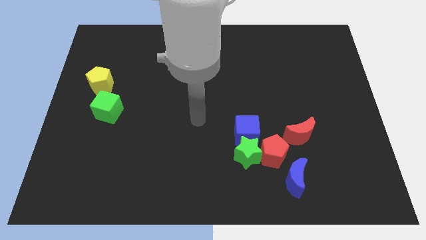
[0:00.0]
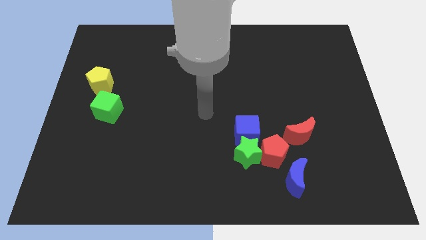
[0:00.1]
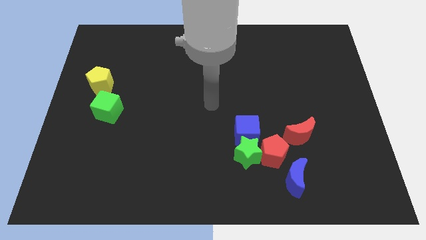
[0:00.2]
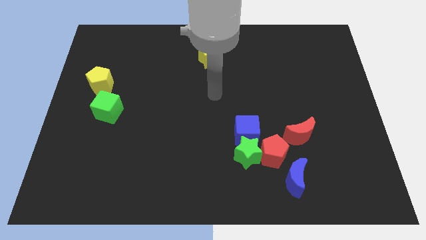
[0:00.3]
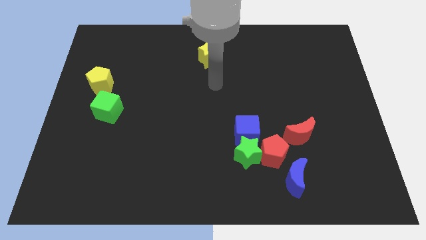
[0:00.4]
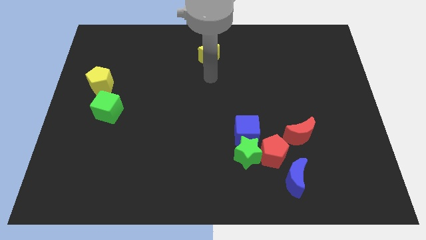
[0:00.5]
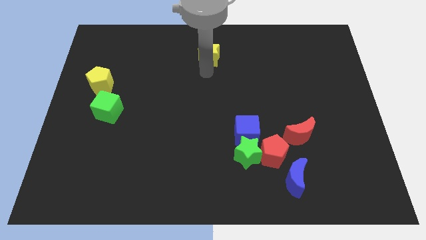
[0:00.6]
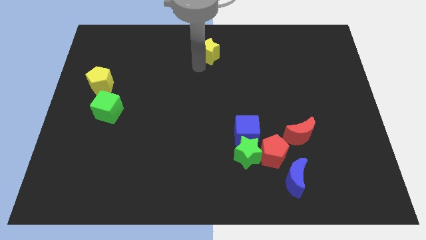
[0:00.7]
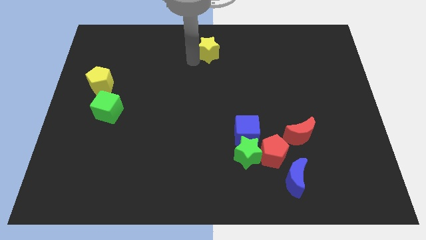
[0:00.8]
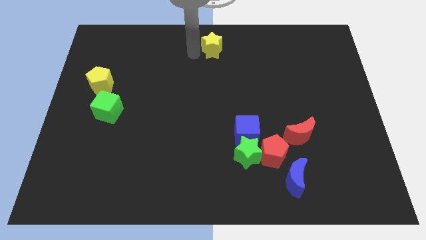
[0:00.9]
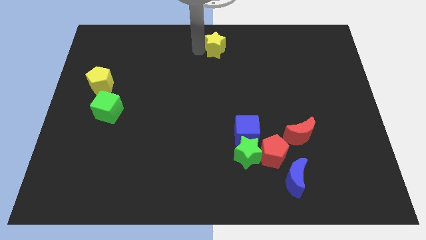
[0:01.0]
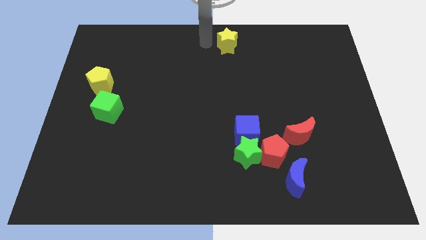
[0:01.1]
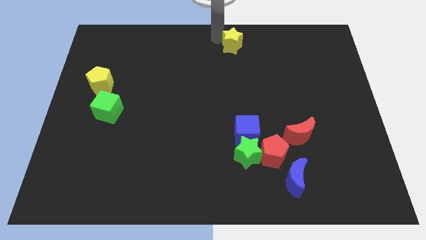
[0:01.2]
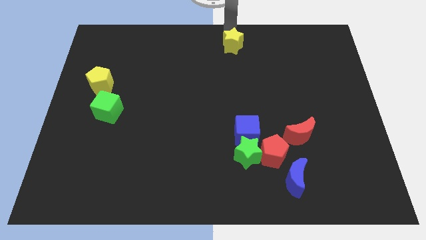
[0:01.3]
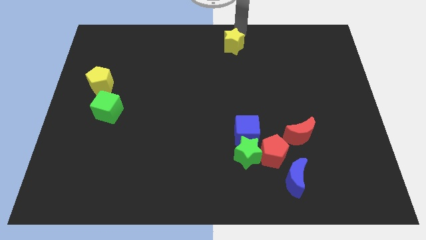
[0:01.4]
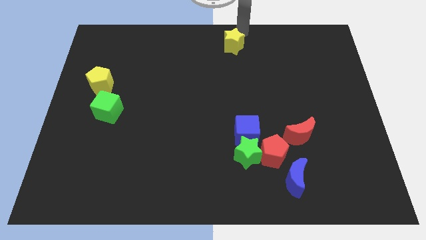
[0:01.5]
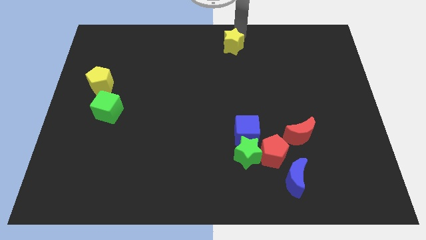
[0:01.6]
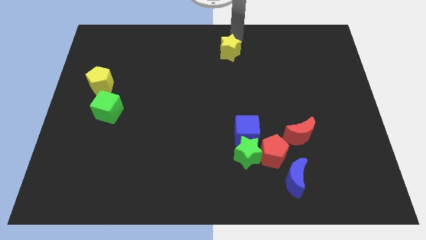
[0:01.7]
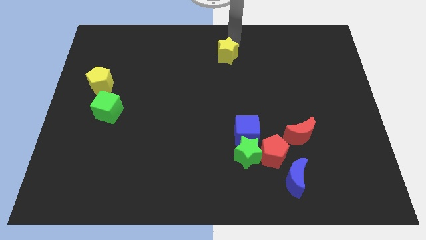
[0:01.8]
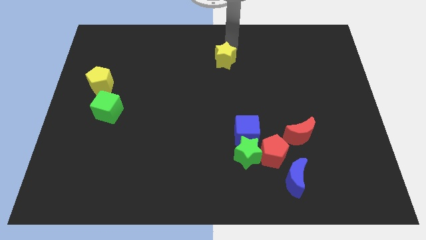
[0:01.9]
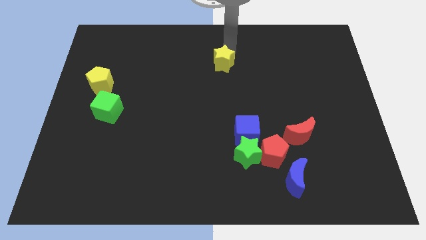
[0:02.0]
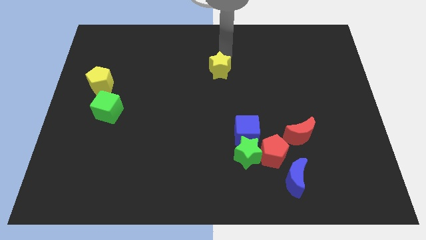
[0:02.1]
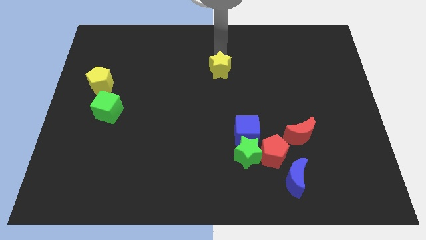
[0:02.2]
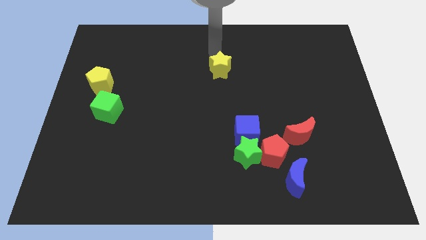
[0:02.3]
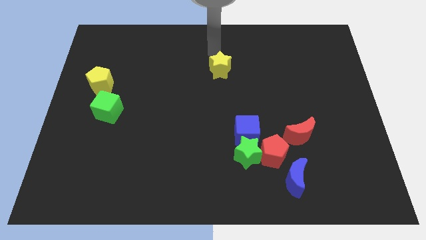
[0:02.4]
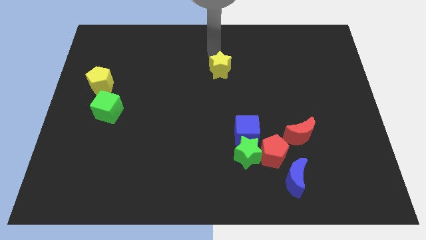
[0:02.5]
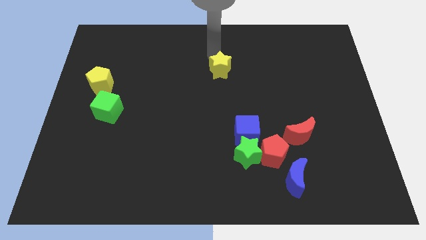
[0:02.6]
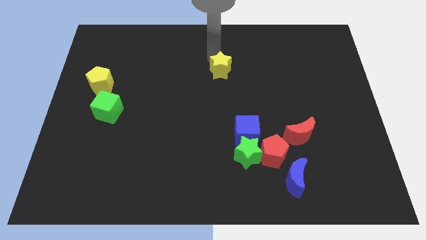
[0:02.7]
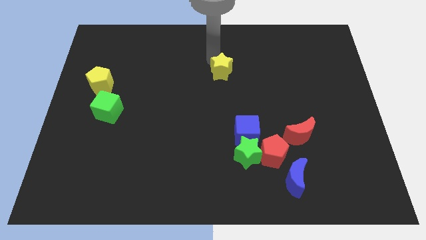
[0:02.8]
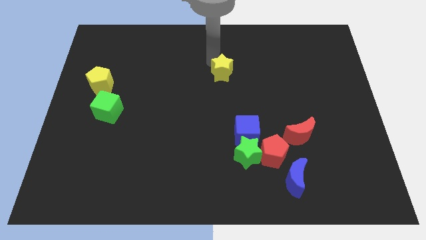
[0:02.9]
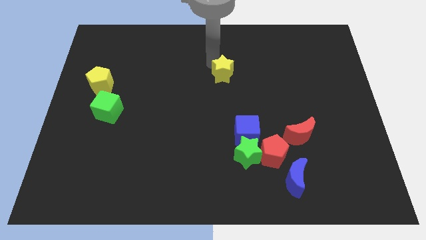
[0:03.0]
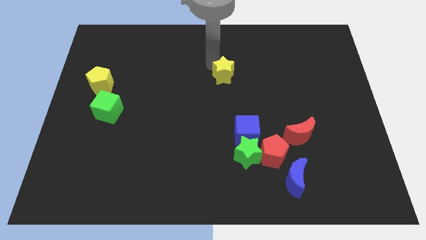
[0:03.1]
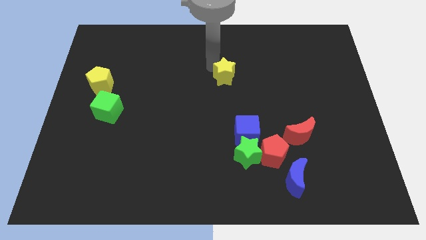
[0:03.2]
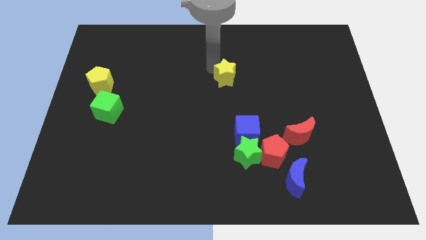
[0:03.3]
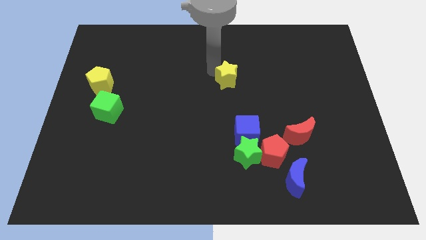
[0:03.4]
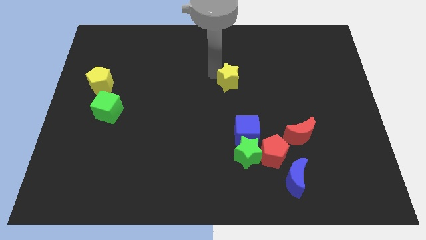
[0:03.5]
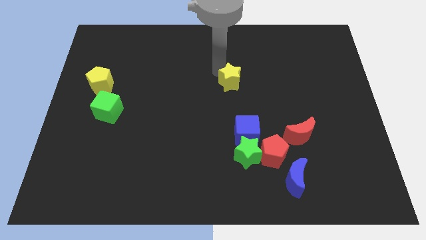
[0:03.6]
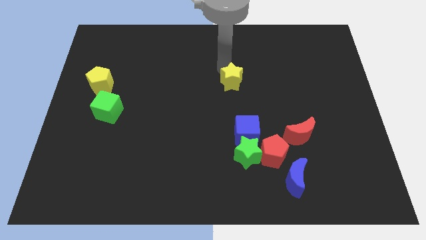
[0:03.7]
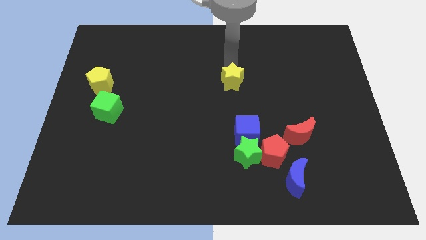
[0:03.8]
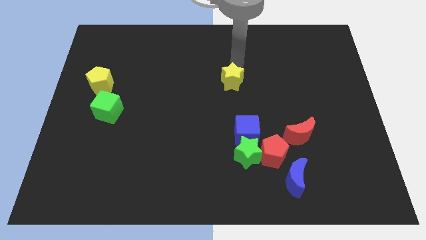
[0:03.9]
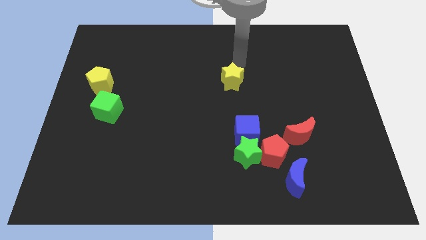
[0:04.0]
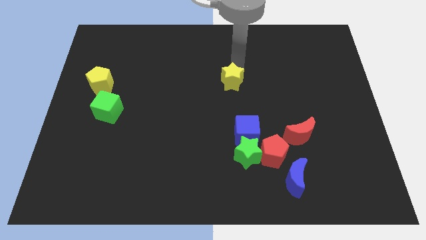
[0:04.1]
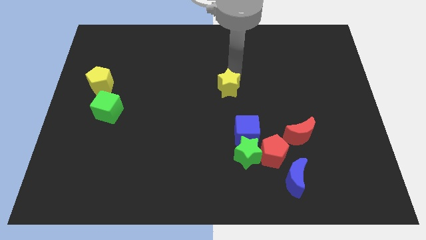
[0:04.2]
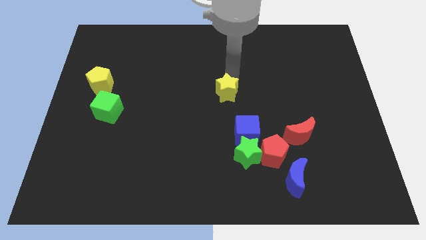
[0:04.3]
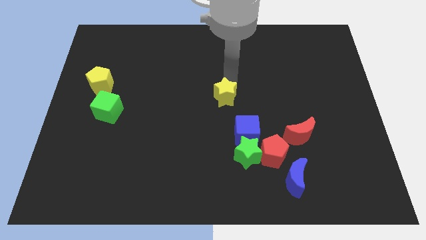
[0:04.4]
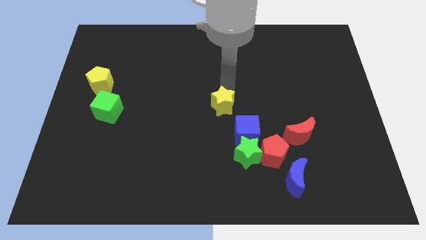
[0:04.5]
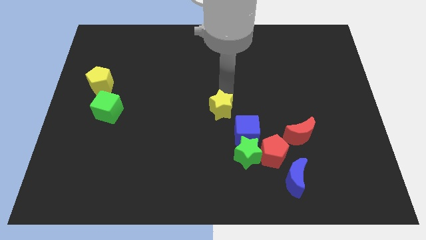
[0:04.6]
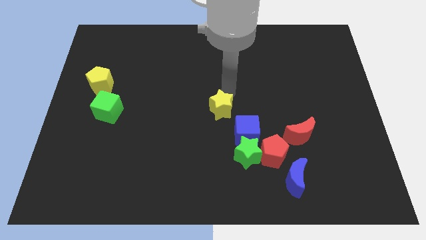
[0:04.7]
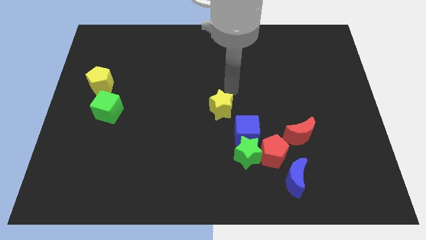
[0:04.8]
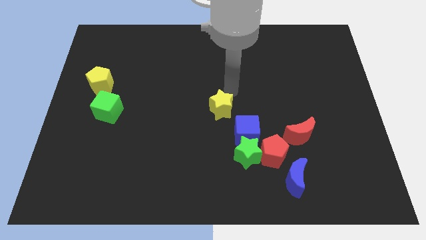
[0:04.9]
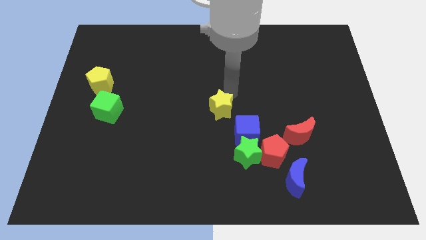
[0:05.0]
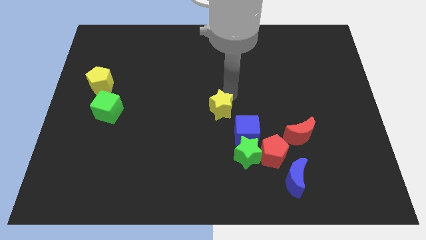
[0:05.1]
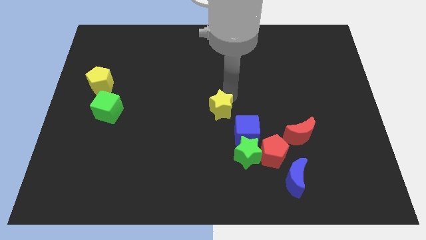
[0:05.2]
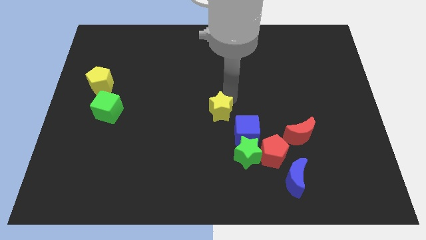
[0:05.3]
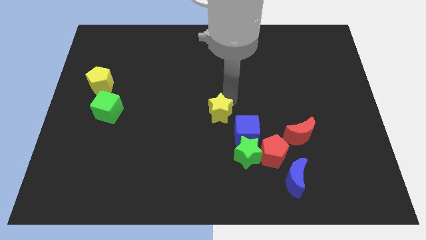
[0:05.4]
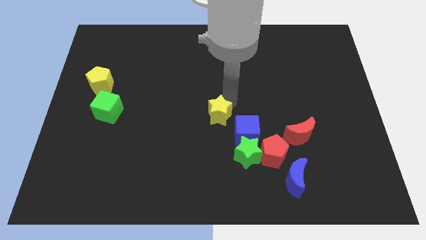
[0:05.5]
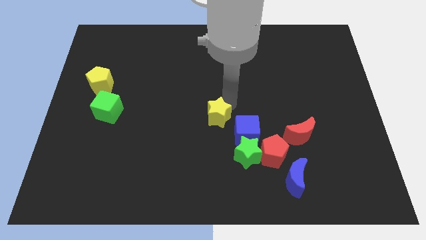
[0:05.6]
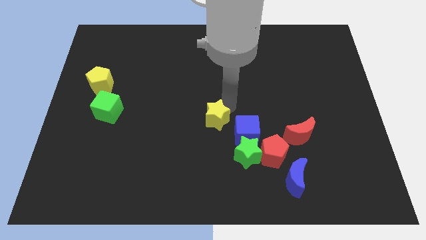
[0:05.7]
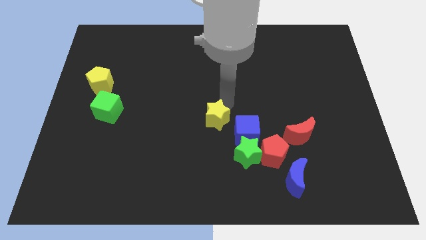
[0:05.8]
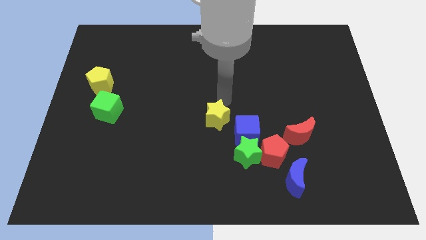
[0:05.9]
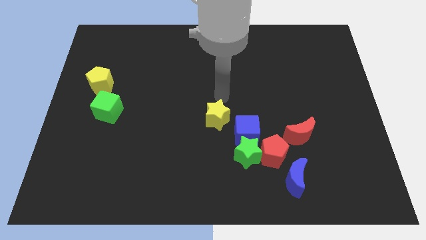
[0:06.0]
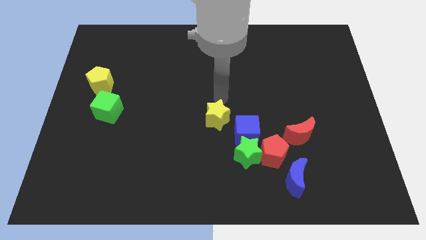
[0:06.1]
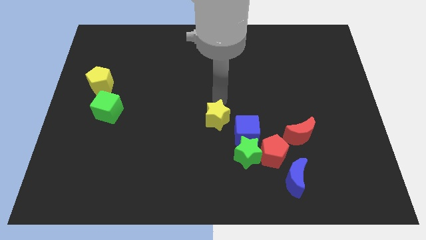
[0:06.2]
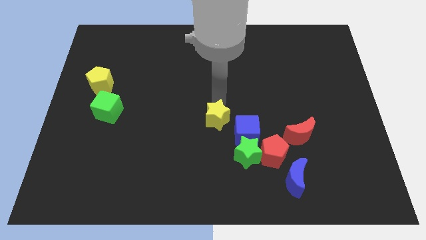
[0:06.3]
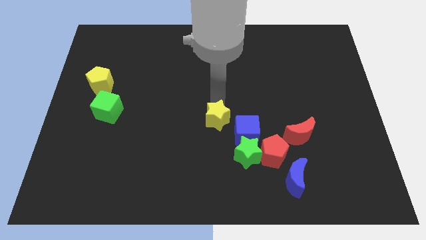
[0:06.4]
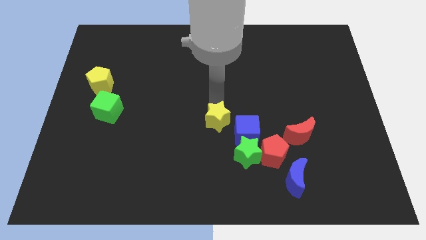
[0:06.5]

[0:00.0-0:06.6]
push the yellow star down

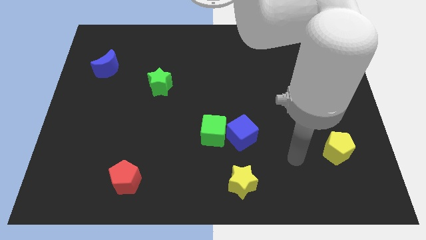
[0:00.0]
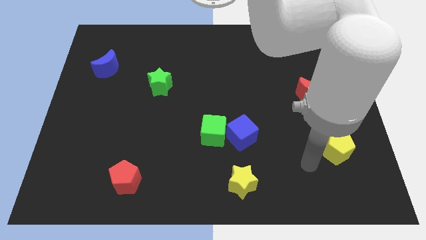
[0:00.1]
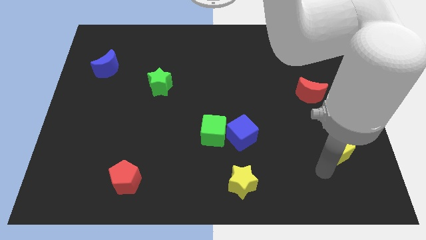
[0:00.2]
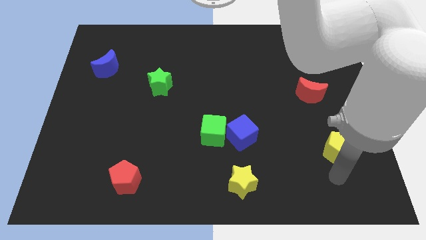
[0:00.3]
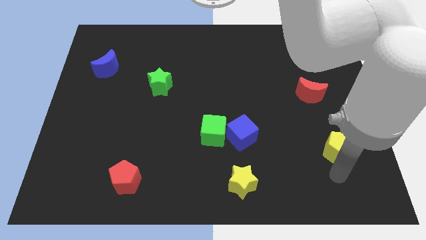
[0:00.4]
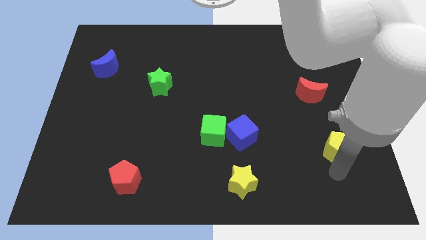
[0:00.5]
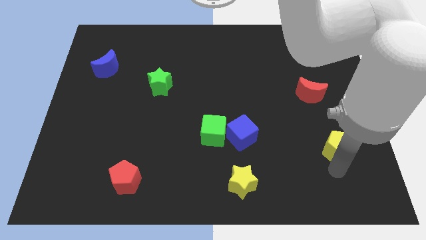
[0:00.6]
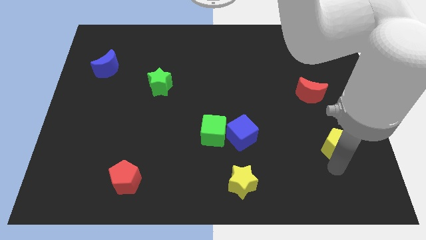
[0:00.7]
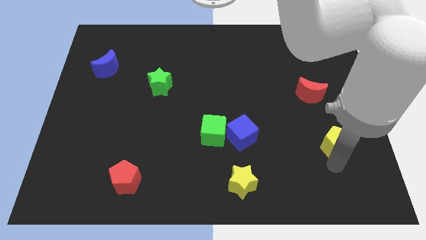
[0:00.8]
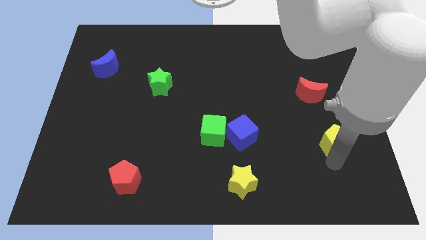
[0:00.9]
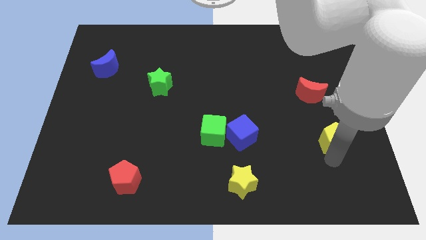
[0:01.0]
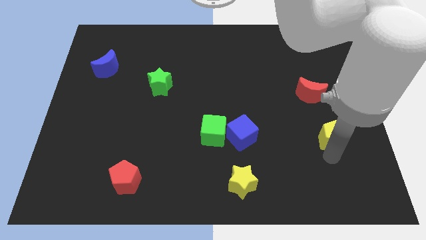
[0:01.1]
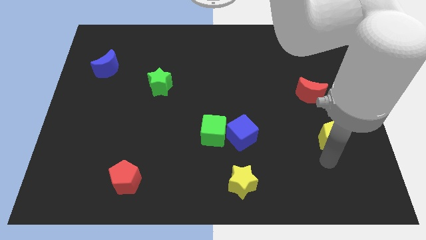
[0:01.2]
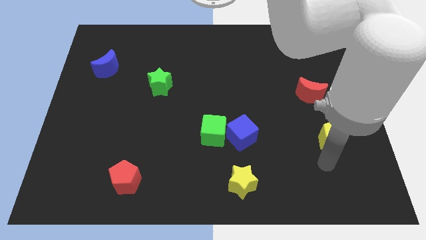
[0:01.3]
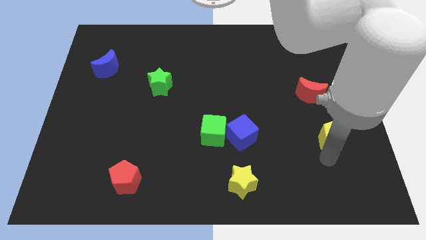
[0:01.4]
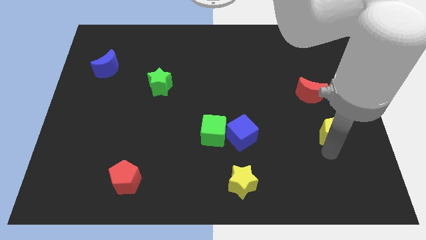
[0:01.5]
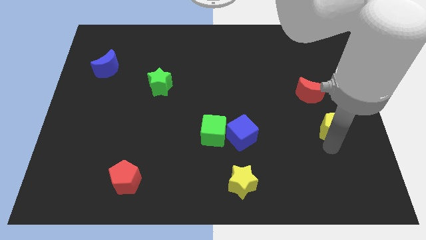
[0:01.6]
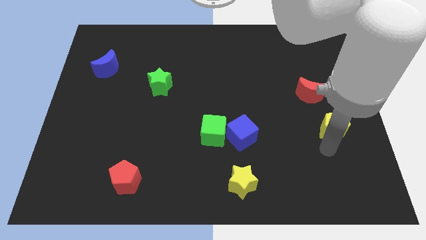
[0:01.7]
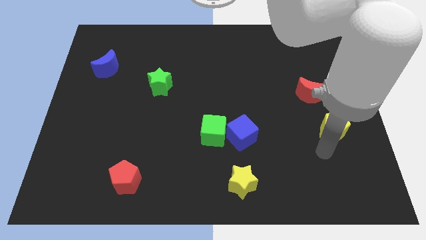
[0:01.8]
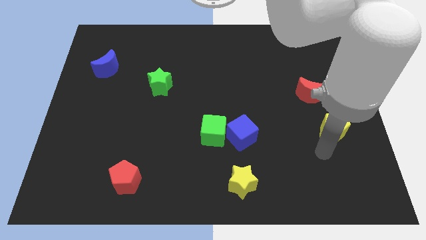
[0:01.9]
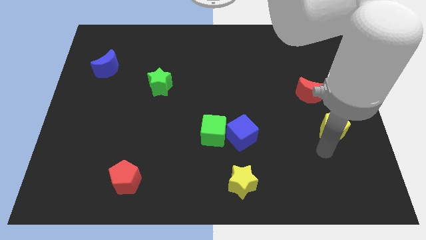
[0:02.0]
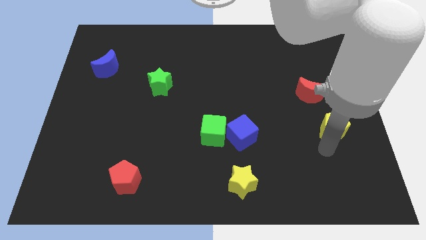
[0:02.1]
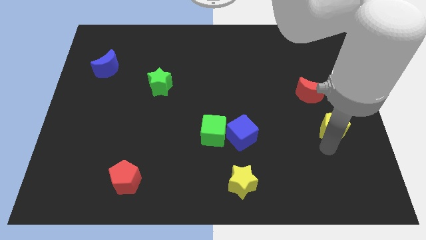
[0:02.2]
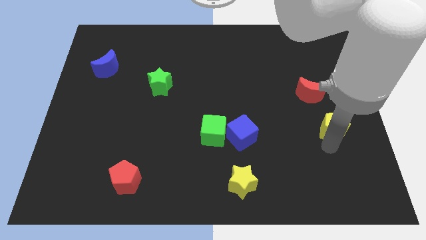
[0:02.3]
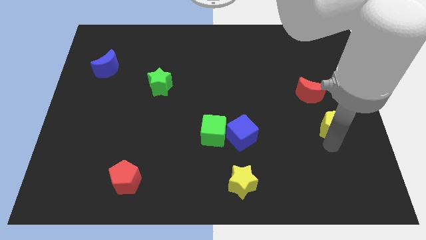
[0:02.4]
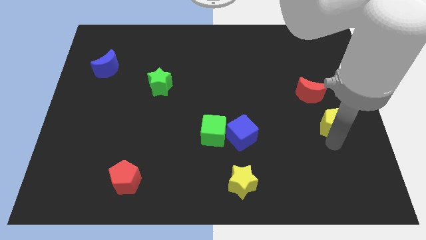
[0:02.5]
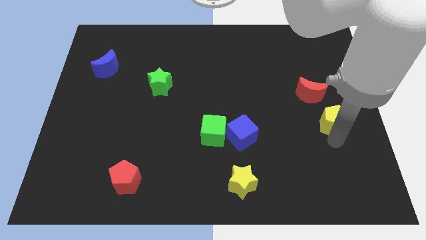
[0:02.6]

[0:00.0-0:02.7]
slightly move the yellow pentagon upwards
